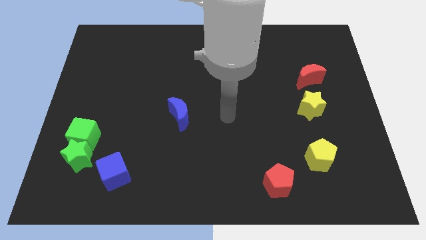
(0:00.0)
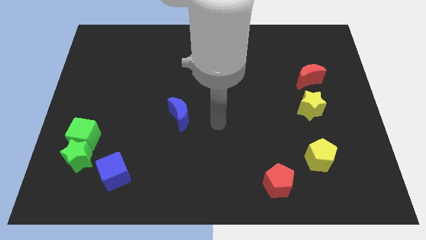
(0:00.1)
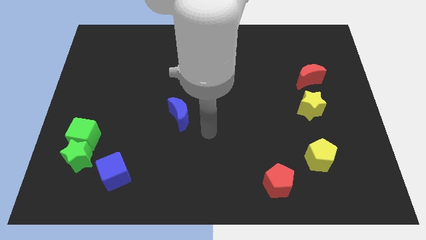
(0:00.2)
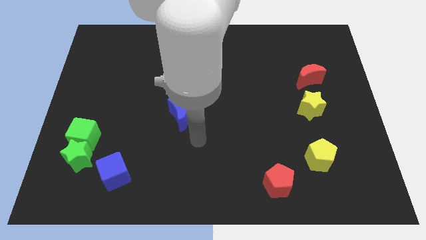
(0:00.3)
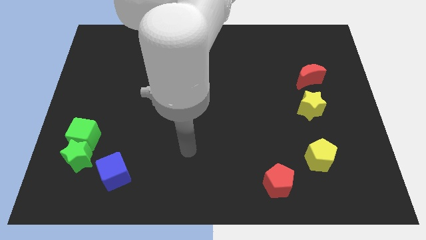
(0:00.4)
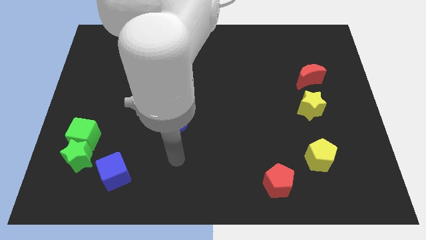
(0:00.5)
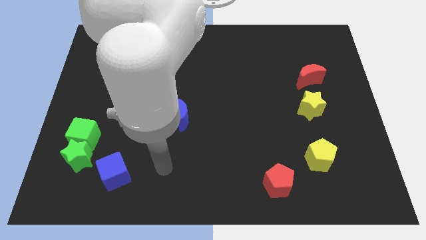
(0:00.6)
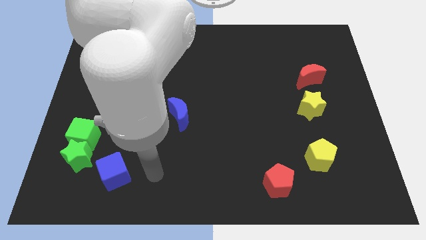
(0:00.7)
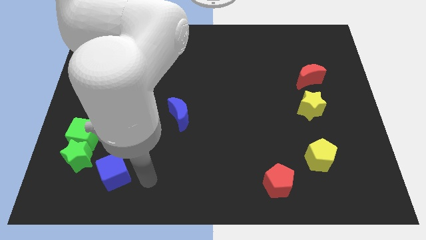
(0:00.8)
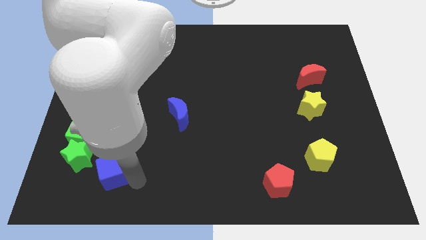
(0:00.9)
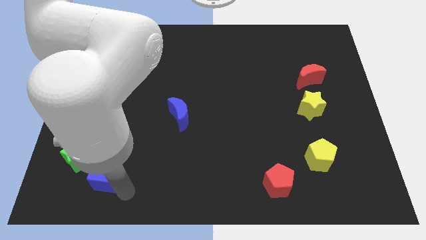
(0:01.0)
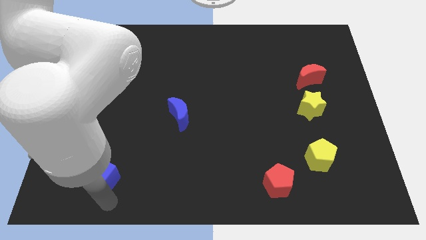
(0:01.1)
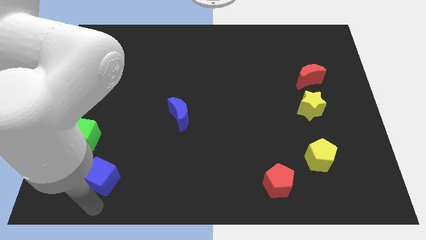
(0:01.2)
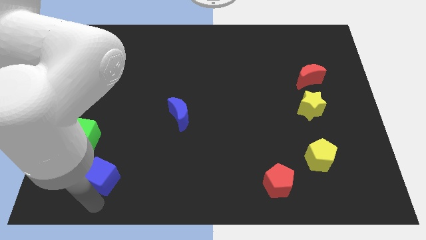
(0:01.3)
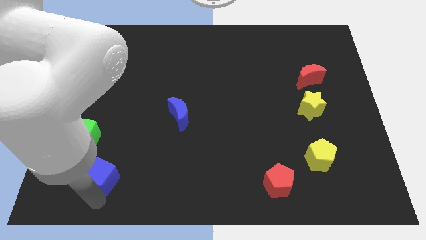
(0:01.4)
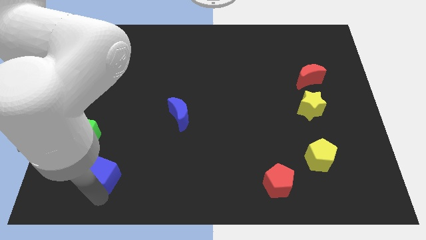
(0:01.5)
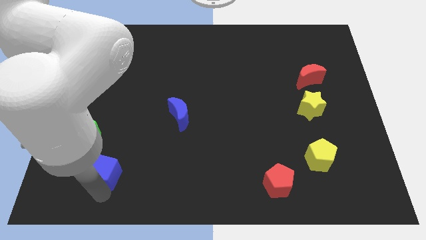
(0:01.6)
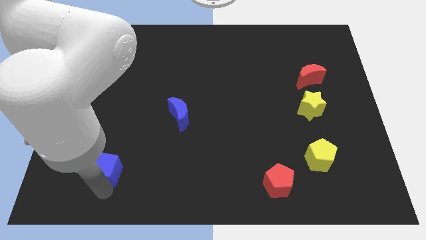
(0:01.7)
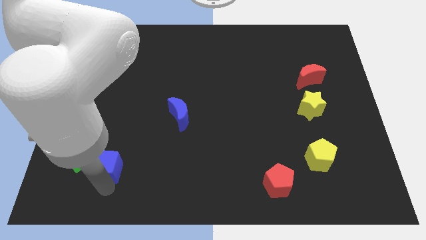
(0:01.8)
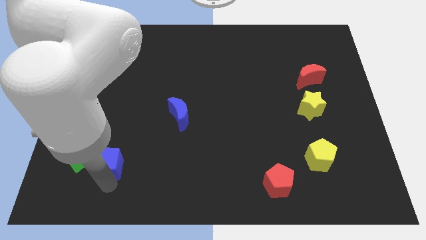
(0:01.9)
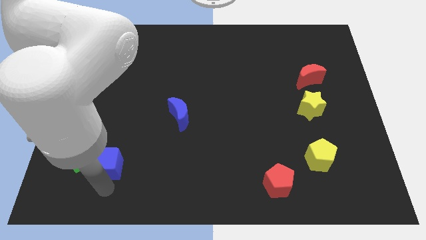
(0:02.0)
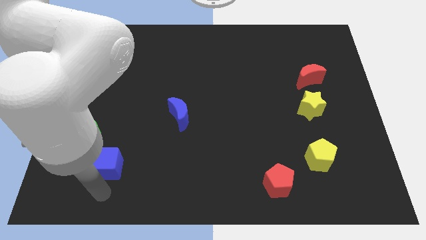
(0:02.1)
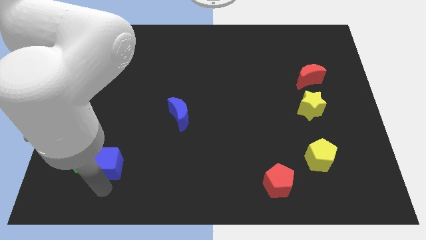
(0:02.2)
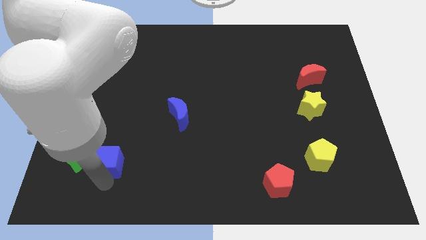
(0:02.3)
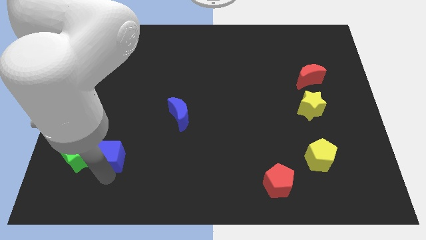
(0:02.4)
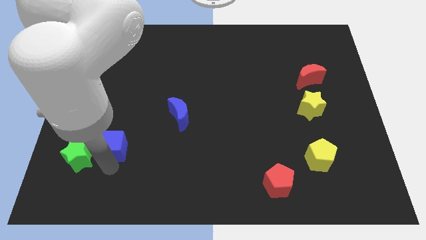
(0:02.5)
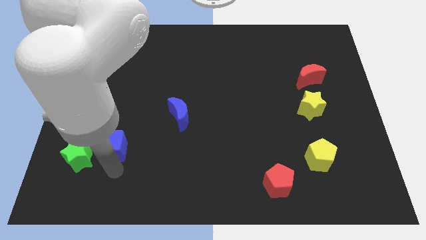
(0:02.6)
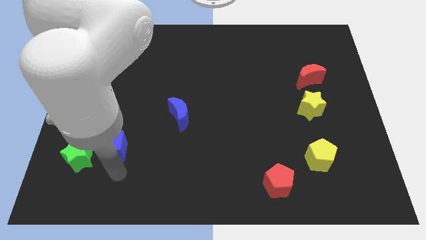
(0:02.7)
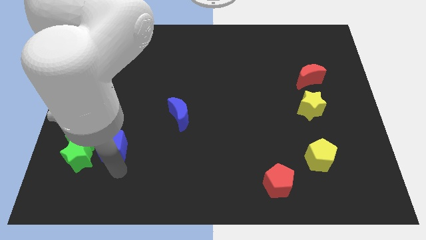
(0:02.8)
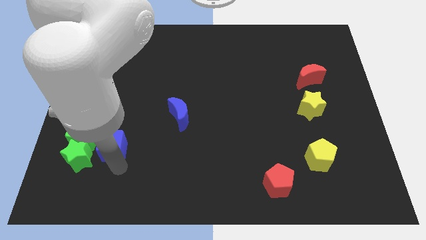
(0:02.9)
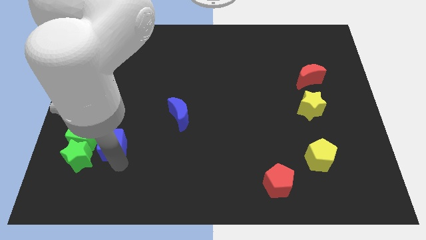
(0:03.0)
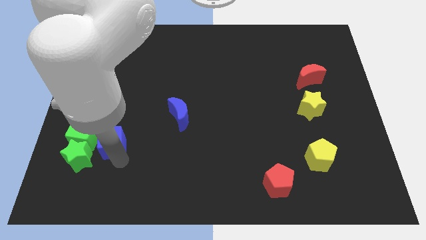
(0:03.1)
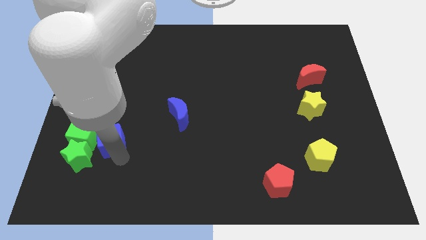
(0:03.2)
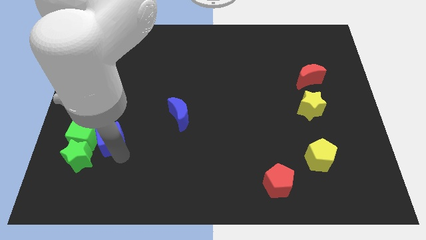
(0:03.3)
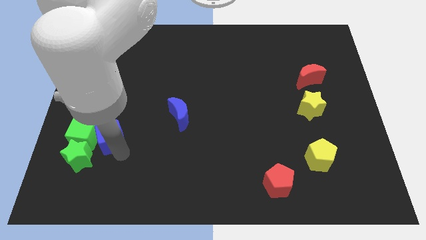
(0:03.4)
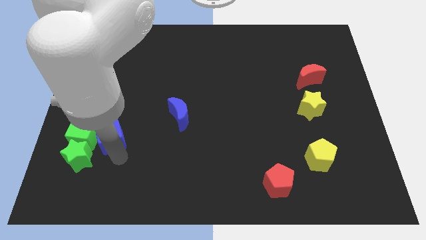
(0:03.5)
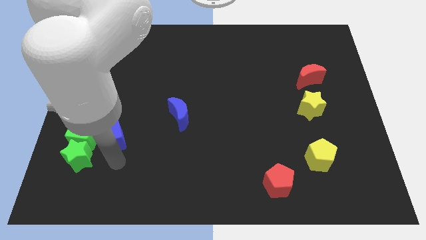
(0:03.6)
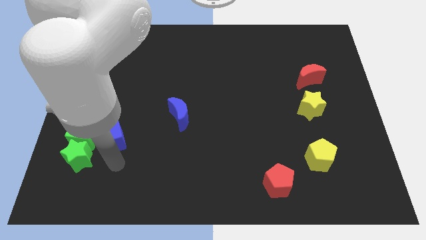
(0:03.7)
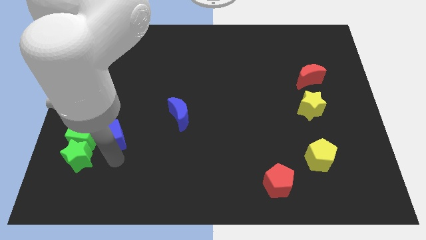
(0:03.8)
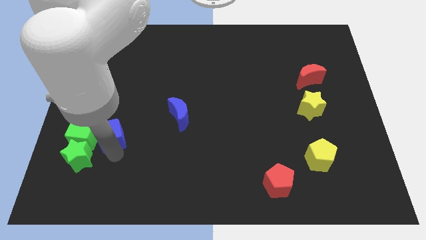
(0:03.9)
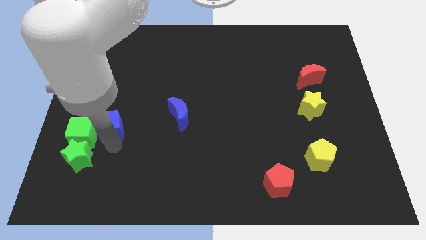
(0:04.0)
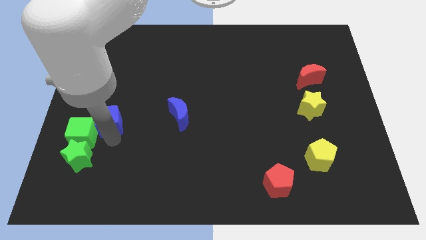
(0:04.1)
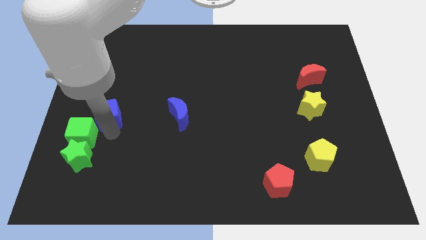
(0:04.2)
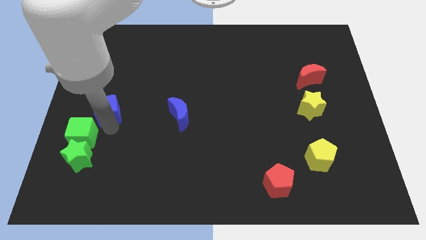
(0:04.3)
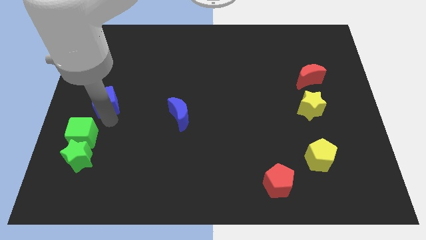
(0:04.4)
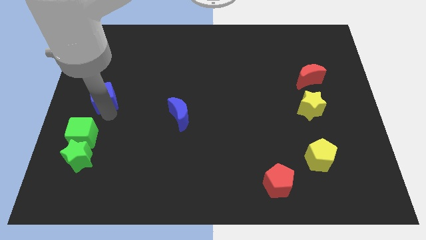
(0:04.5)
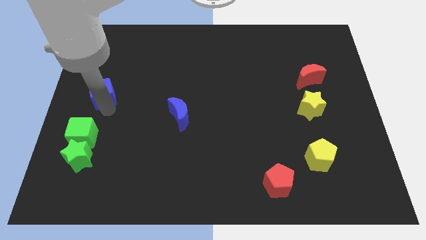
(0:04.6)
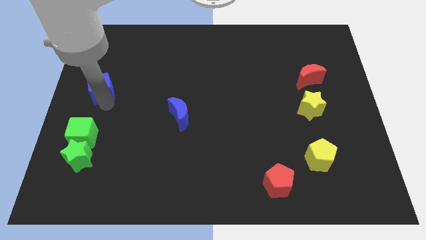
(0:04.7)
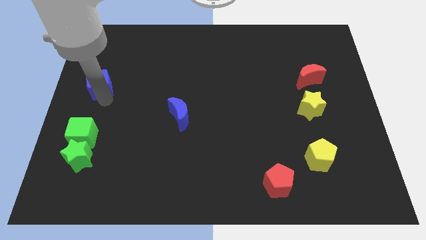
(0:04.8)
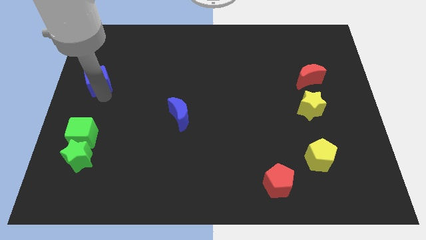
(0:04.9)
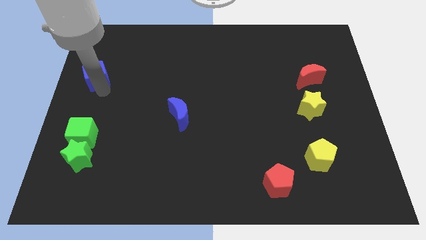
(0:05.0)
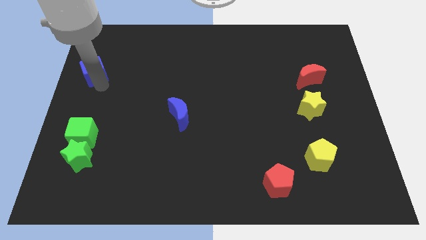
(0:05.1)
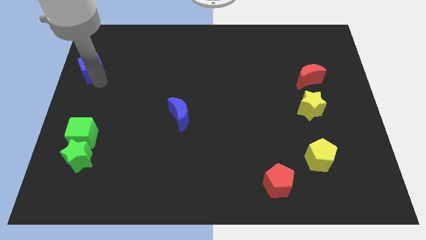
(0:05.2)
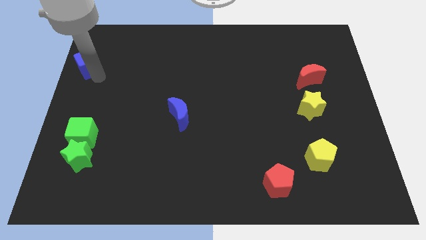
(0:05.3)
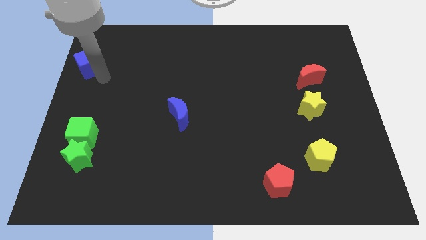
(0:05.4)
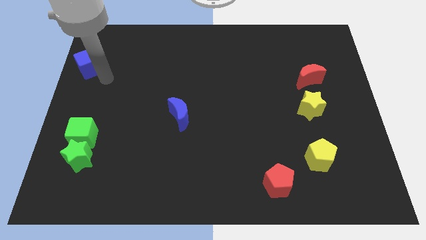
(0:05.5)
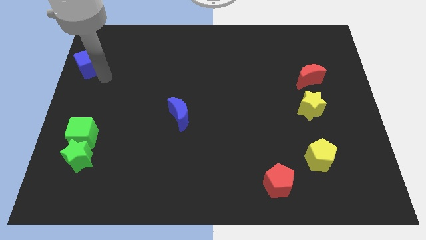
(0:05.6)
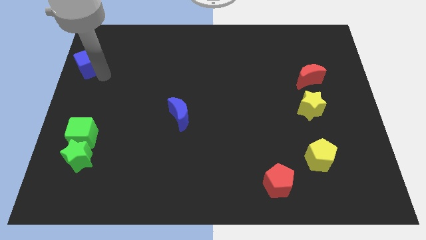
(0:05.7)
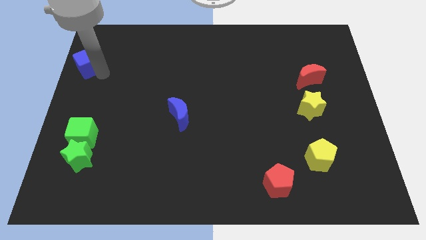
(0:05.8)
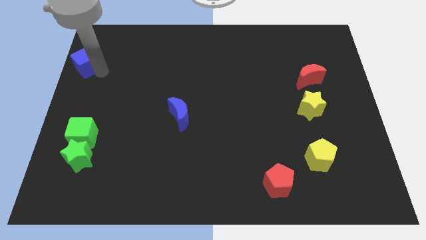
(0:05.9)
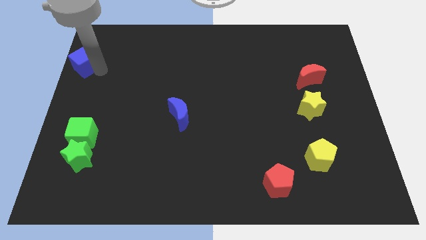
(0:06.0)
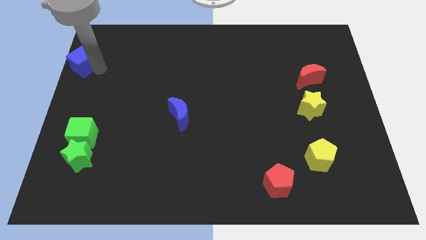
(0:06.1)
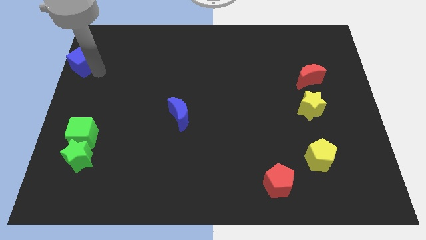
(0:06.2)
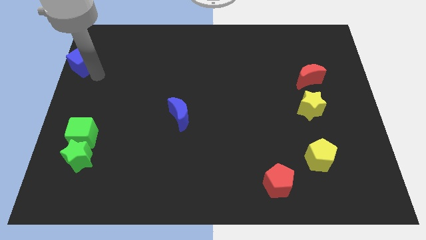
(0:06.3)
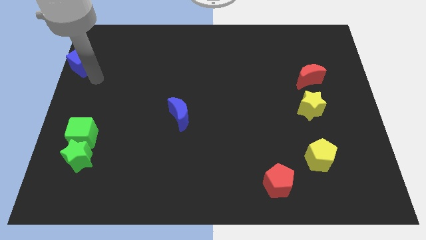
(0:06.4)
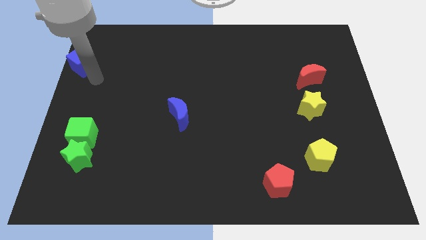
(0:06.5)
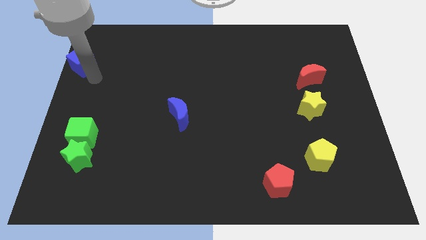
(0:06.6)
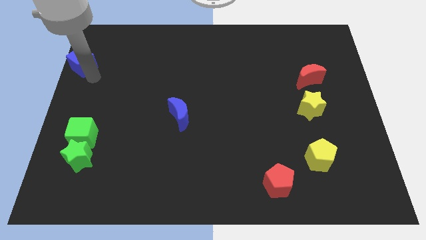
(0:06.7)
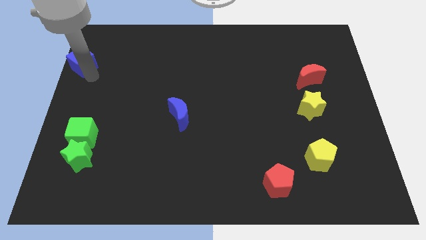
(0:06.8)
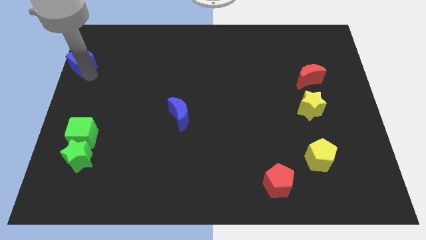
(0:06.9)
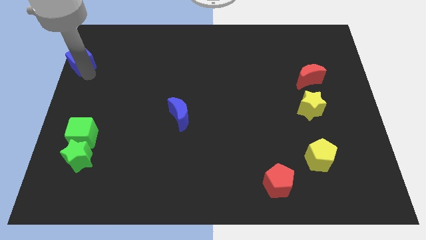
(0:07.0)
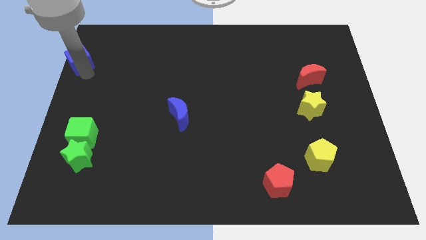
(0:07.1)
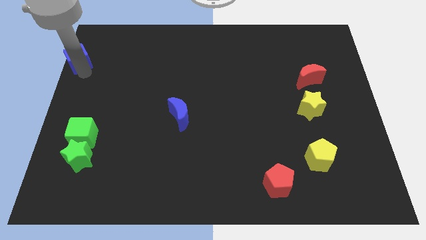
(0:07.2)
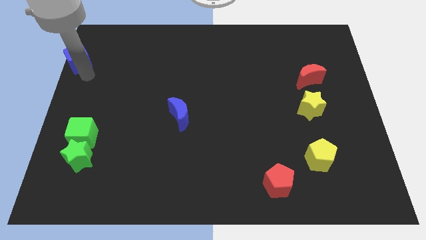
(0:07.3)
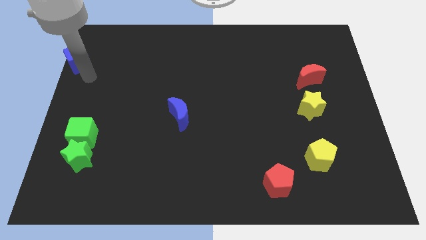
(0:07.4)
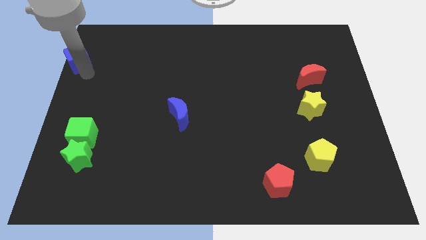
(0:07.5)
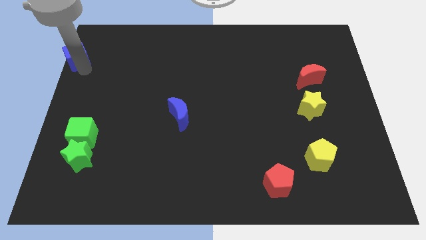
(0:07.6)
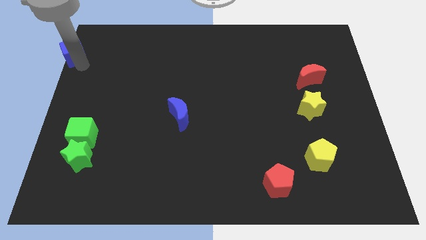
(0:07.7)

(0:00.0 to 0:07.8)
slide the blue cube to the upper left corner
